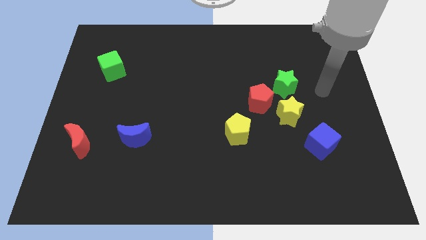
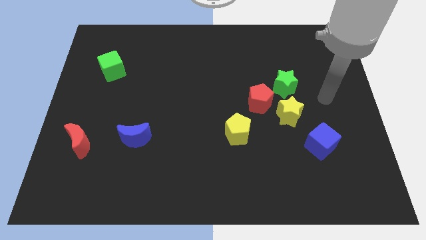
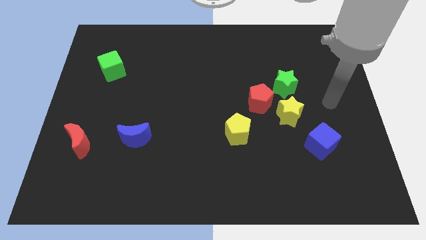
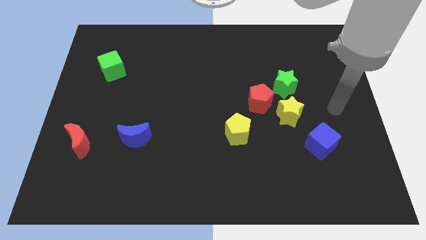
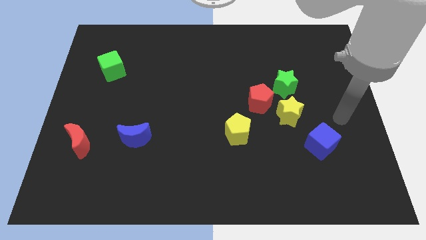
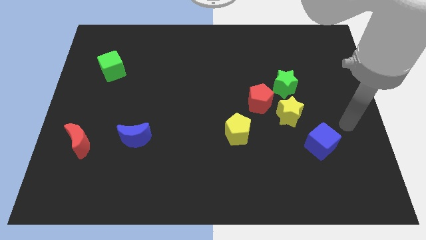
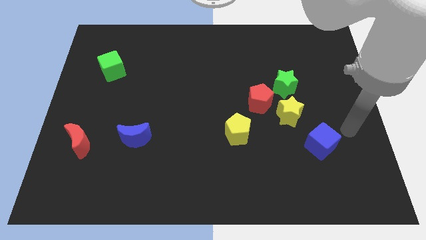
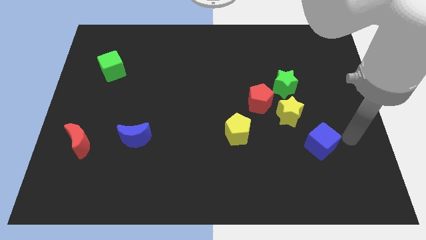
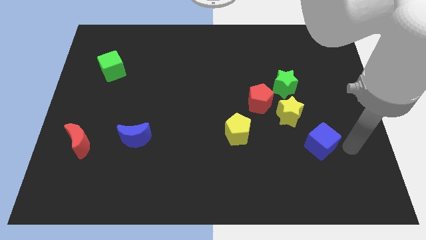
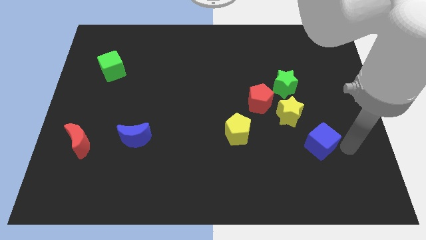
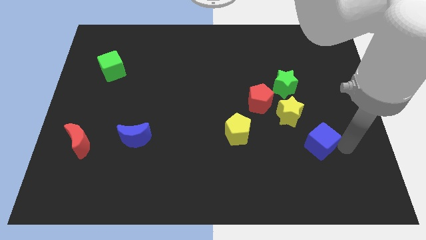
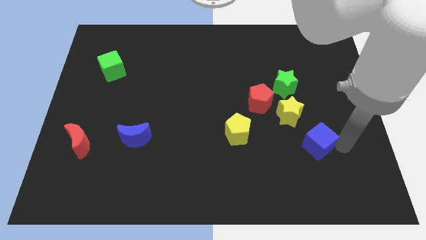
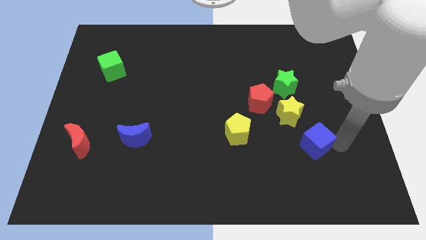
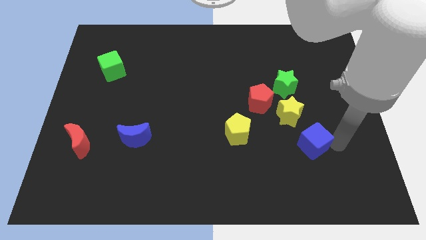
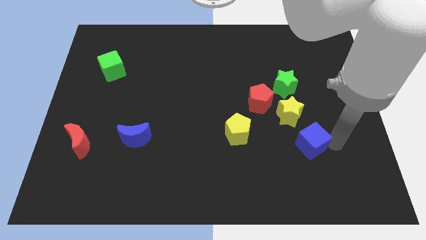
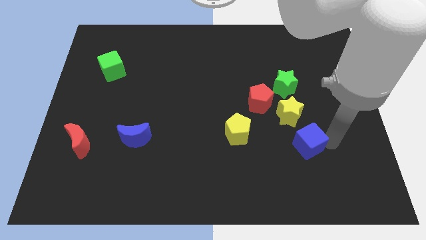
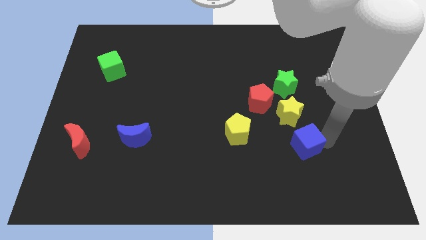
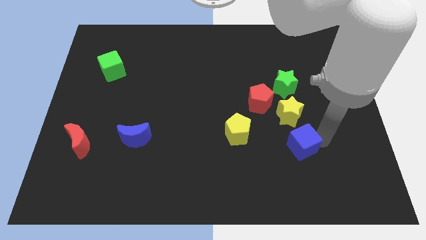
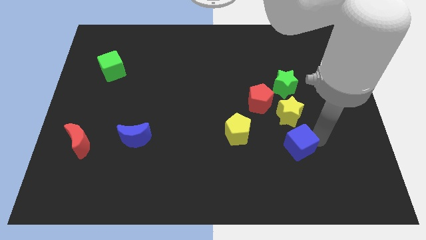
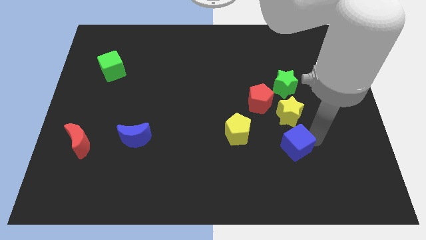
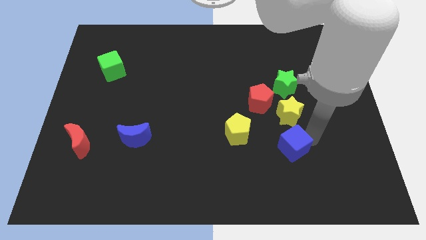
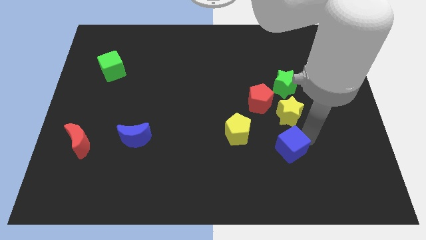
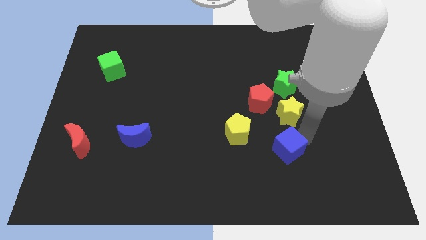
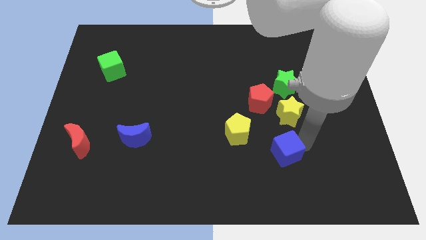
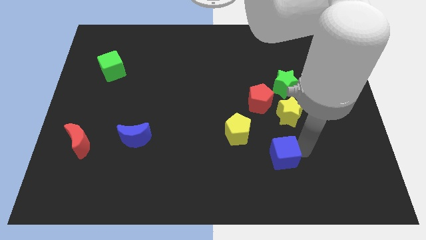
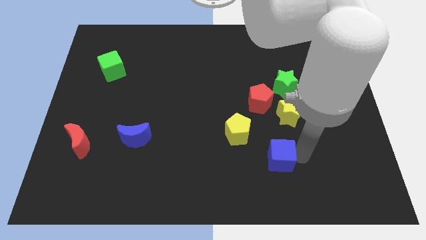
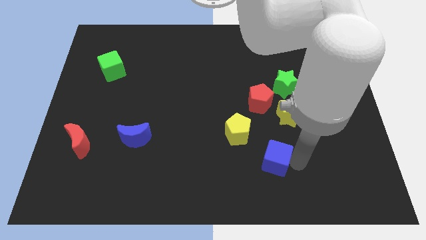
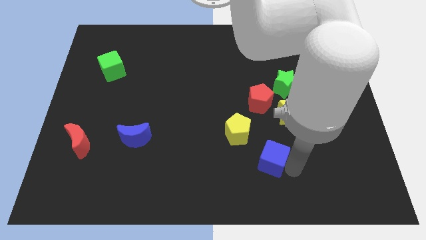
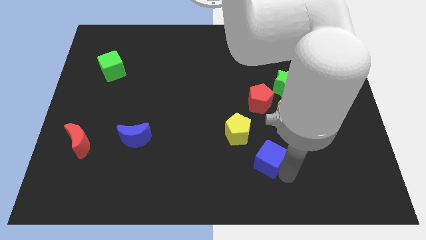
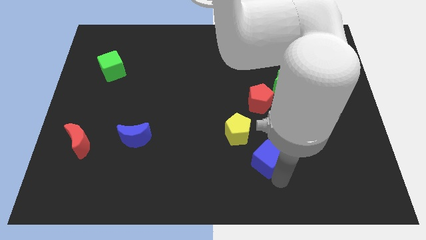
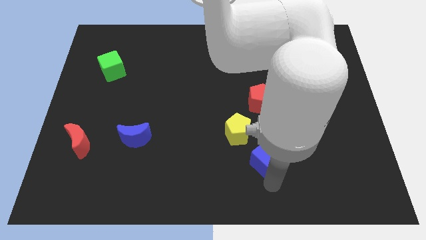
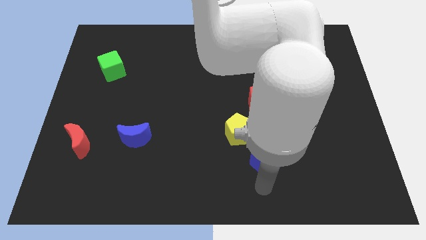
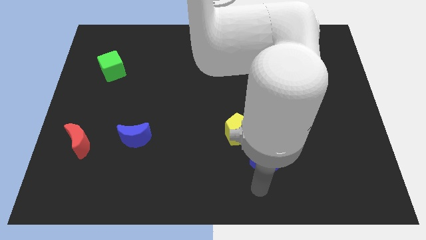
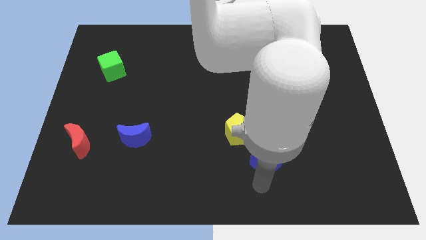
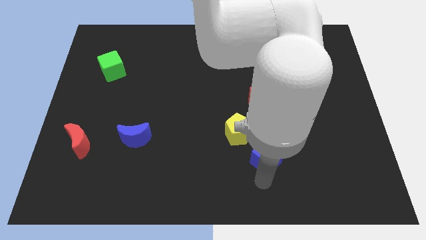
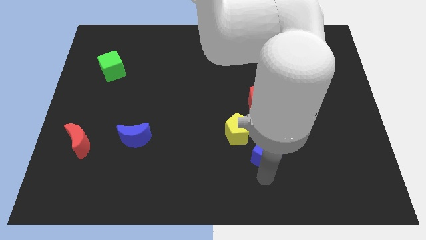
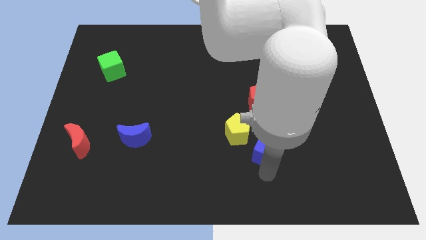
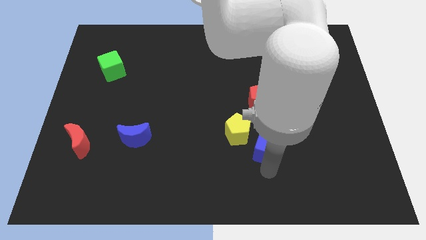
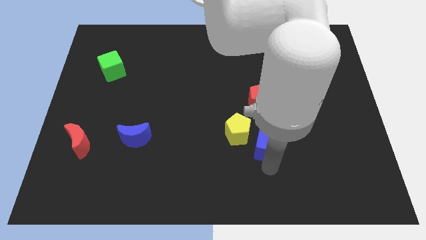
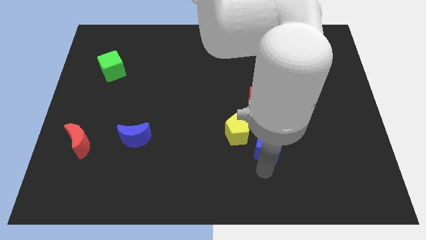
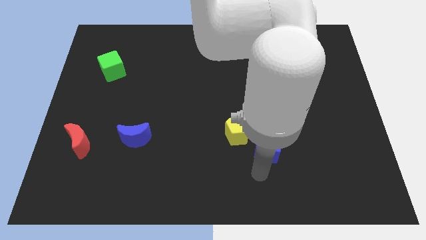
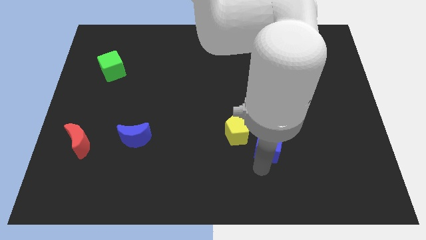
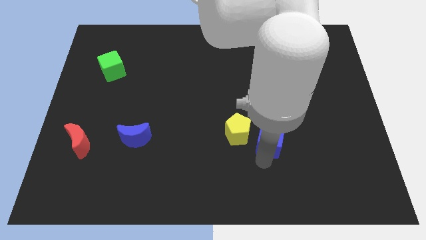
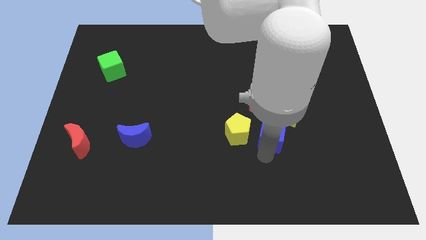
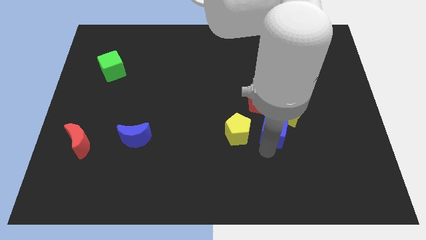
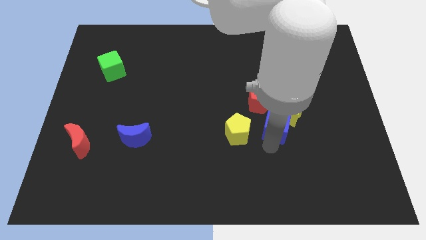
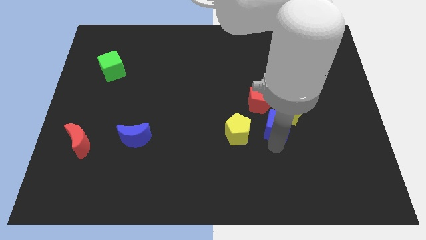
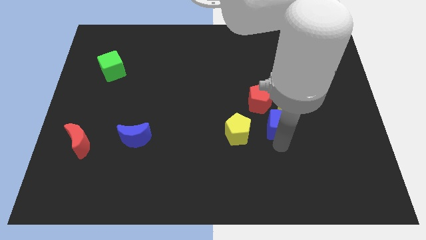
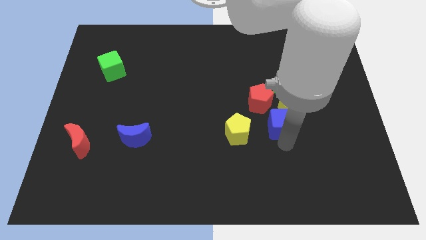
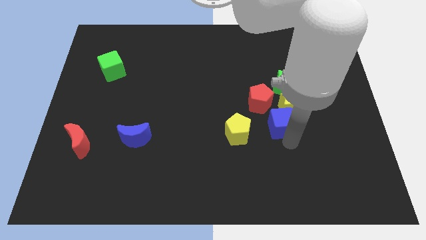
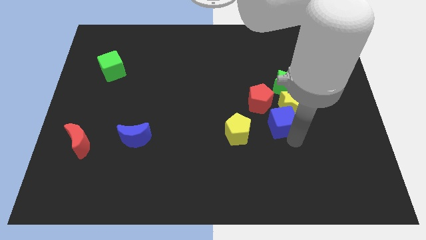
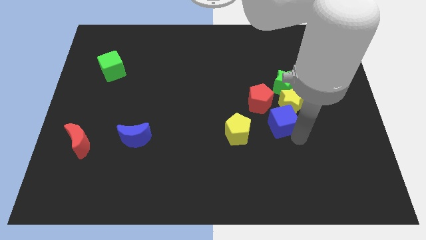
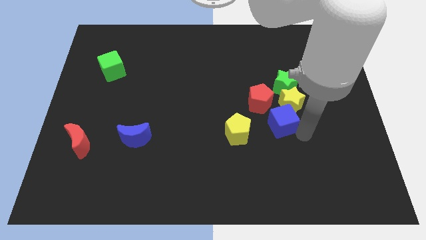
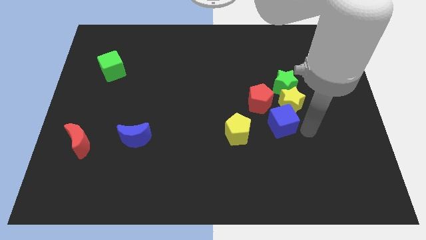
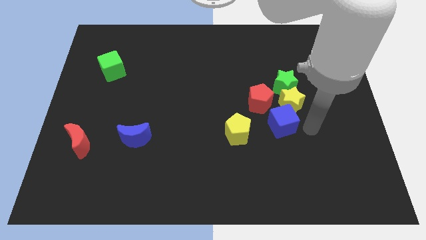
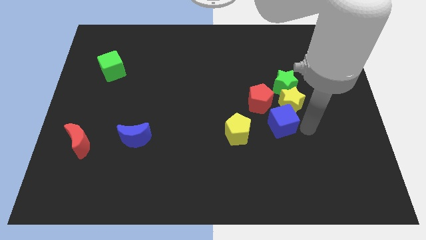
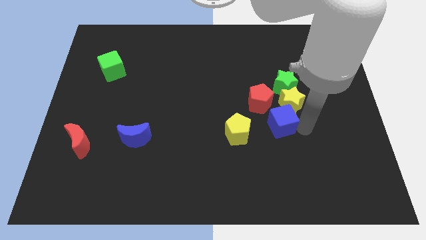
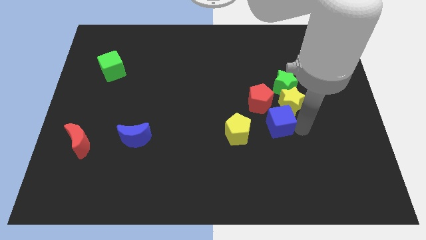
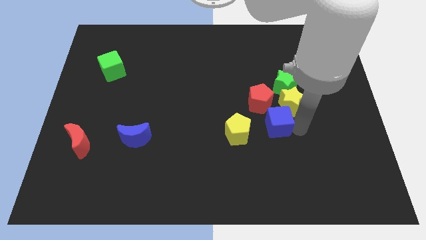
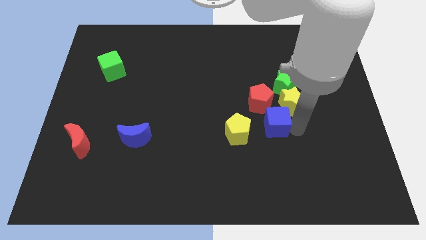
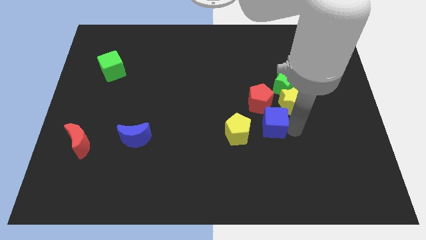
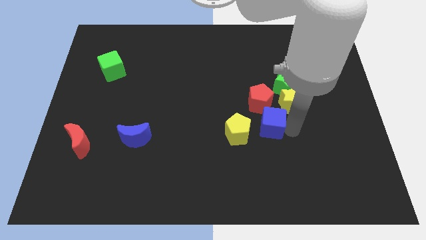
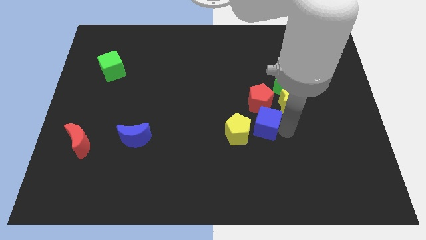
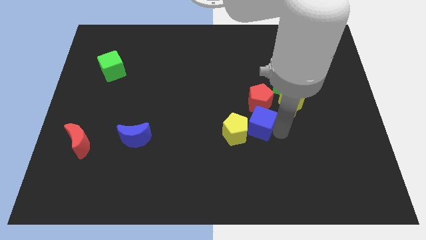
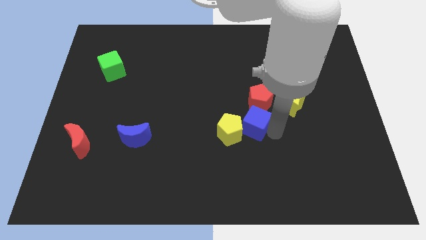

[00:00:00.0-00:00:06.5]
move the blue cube to the center of the board
